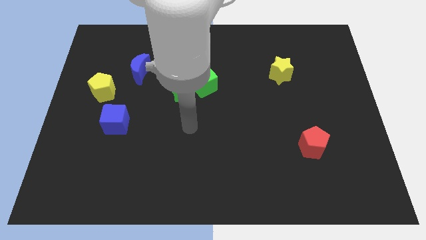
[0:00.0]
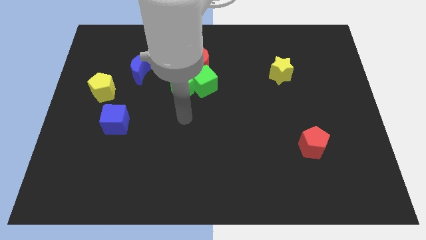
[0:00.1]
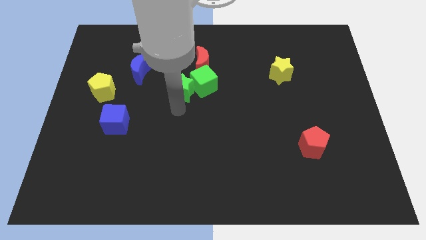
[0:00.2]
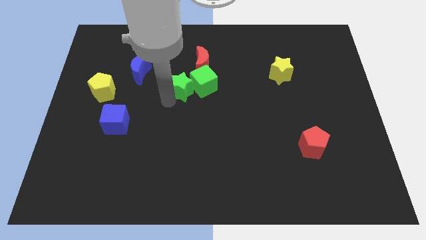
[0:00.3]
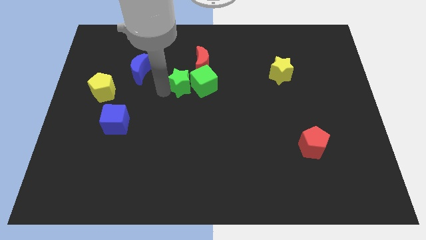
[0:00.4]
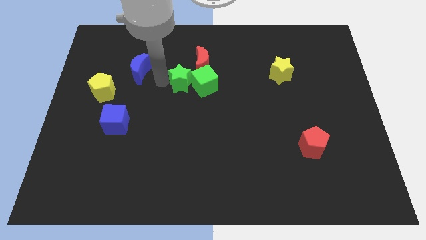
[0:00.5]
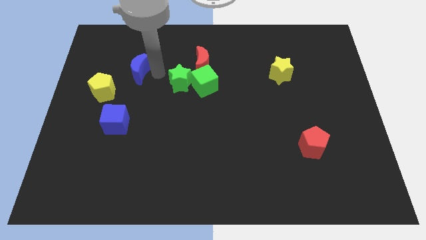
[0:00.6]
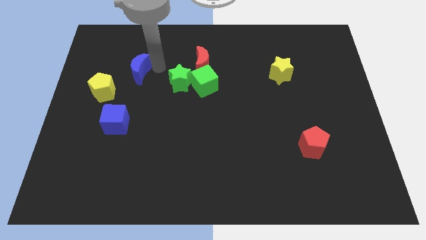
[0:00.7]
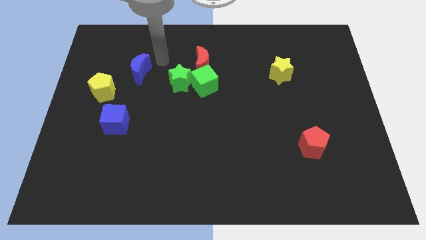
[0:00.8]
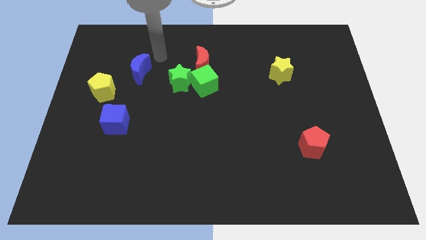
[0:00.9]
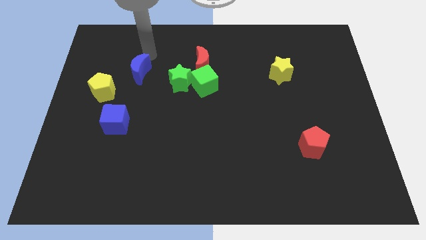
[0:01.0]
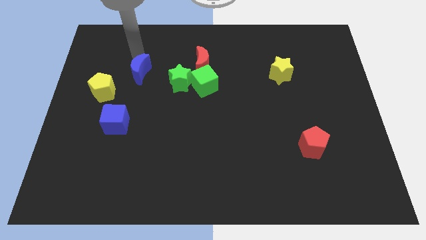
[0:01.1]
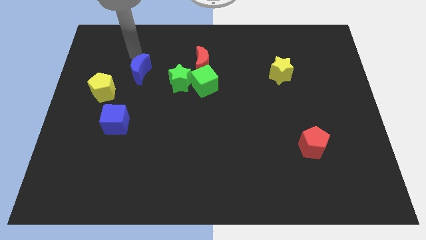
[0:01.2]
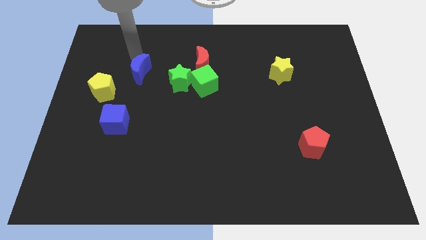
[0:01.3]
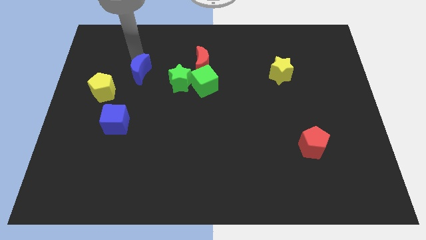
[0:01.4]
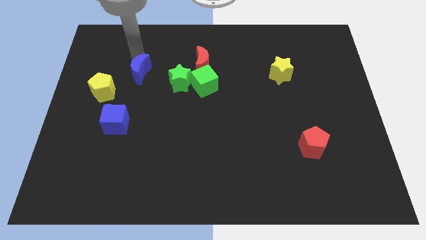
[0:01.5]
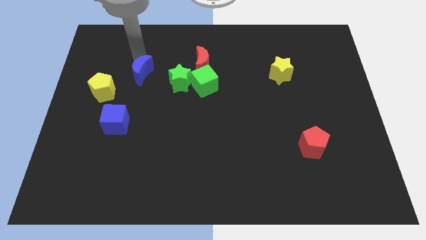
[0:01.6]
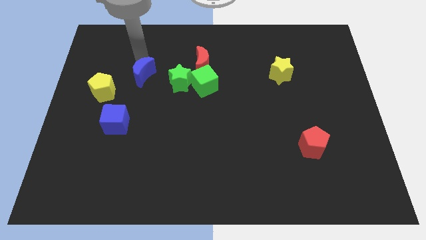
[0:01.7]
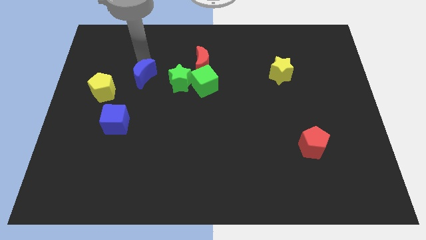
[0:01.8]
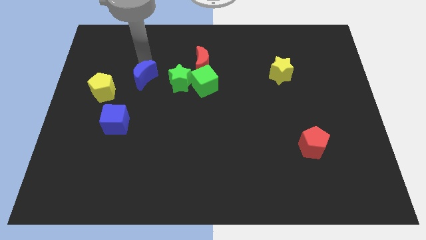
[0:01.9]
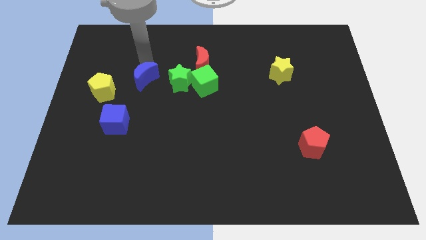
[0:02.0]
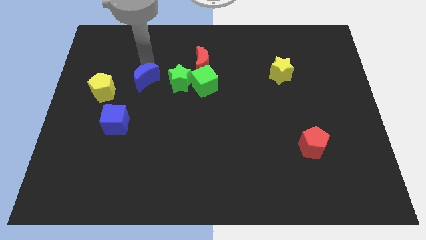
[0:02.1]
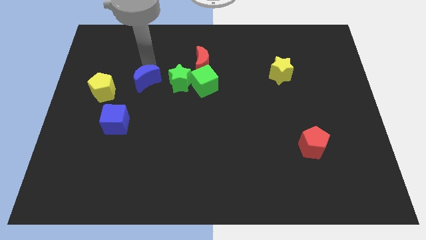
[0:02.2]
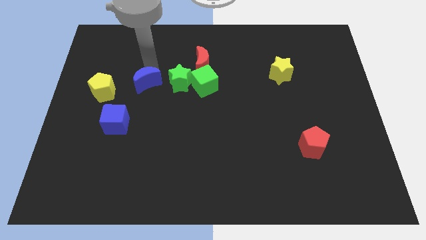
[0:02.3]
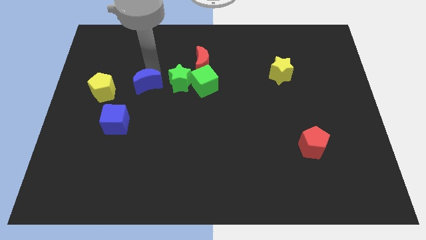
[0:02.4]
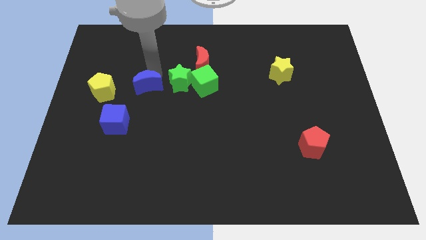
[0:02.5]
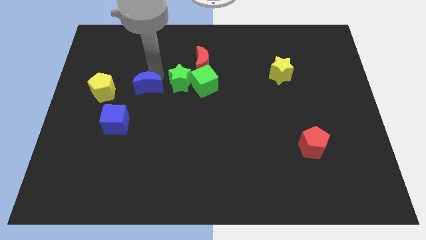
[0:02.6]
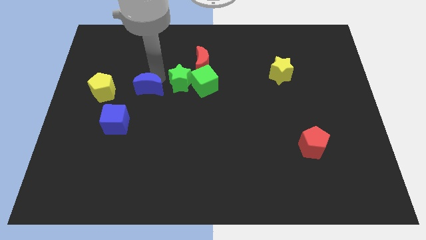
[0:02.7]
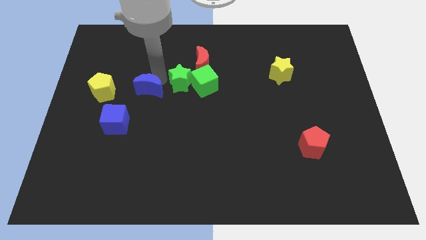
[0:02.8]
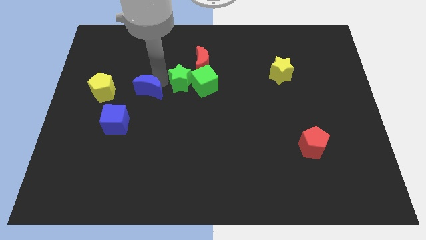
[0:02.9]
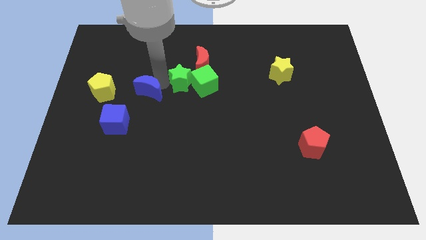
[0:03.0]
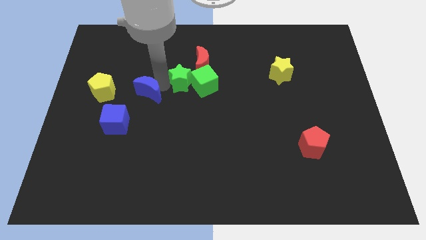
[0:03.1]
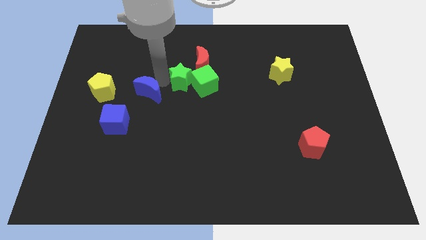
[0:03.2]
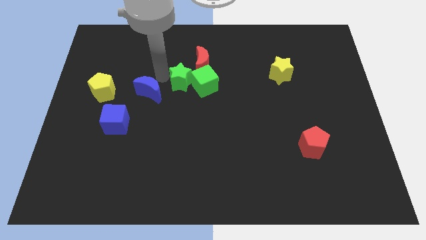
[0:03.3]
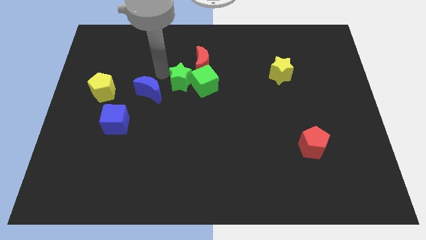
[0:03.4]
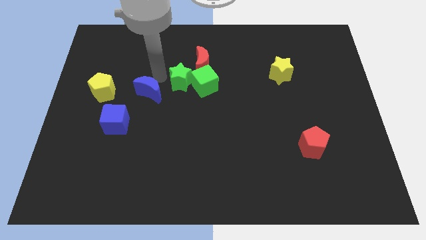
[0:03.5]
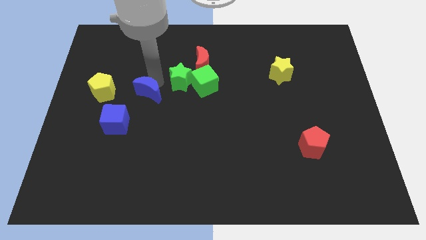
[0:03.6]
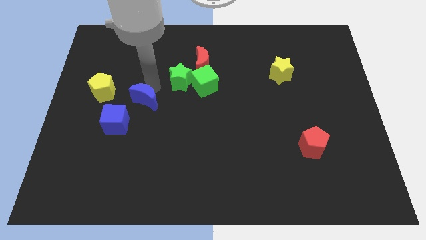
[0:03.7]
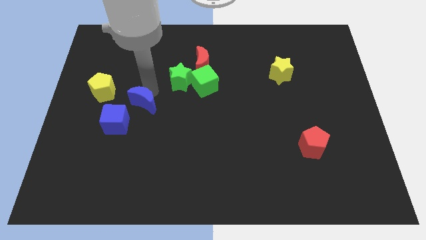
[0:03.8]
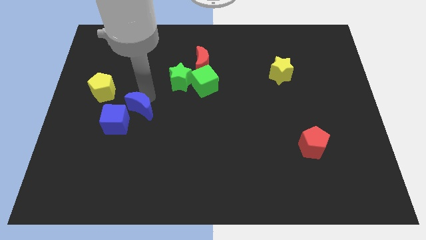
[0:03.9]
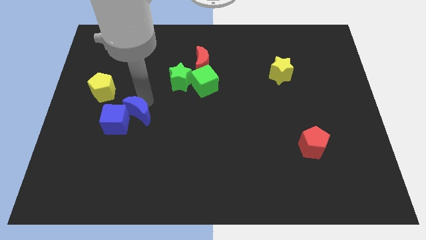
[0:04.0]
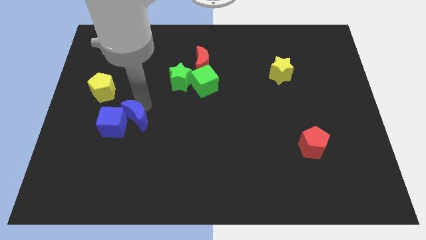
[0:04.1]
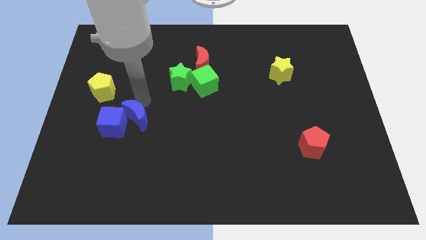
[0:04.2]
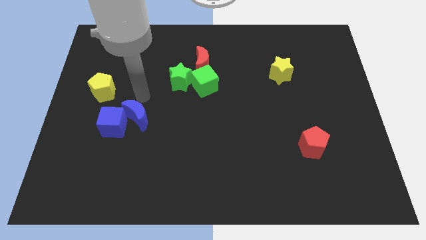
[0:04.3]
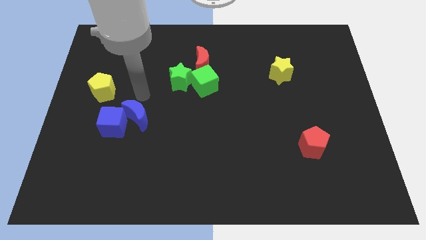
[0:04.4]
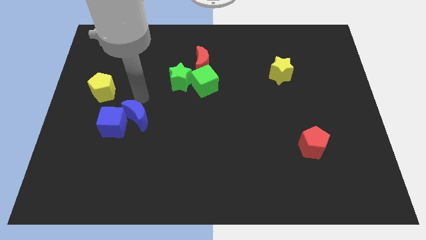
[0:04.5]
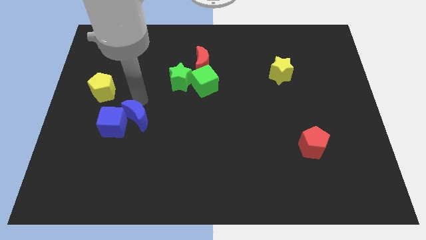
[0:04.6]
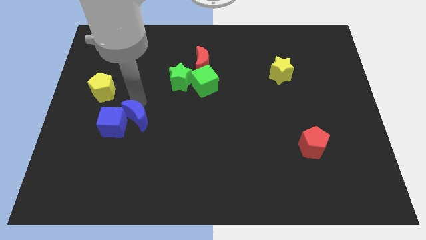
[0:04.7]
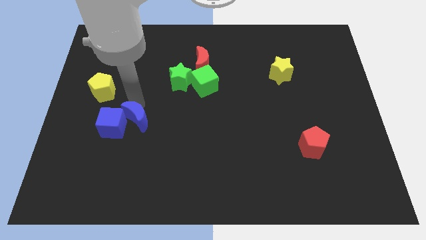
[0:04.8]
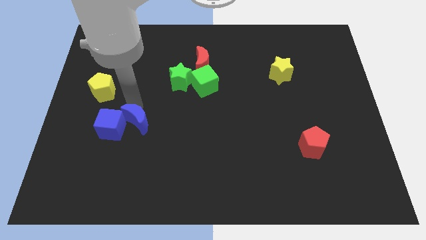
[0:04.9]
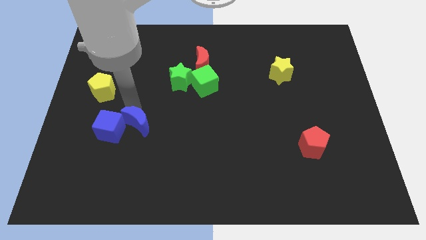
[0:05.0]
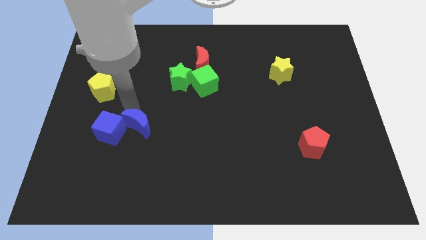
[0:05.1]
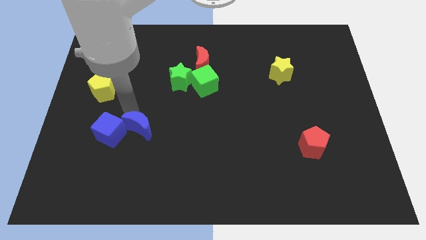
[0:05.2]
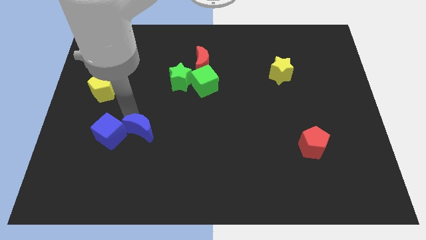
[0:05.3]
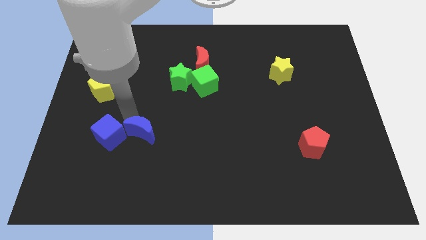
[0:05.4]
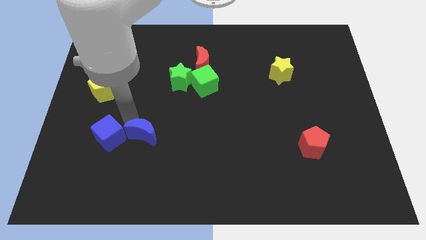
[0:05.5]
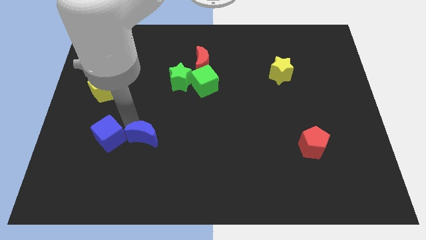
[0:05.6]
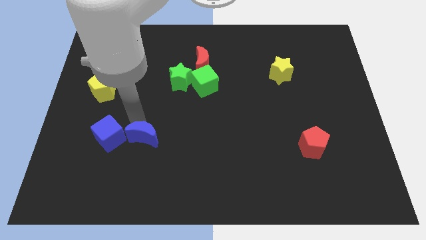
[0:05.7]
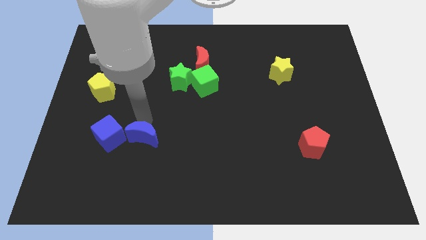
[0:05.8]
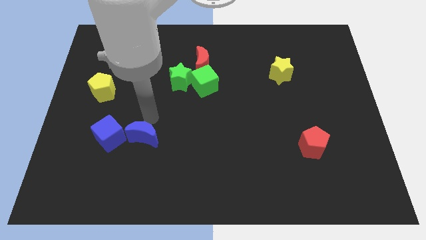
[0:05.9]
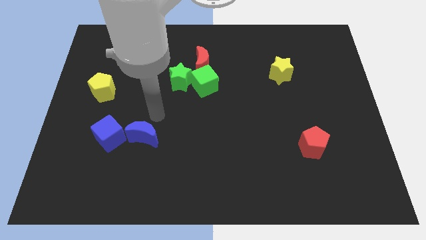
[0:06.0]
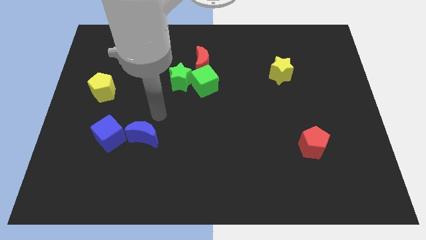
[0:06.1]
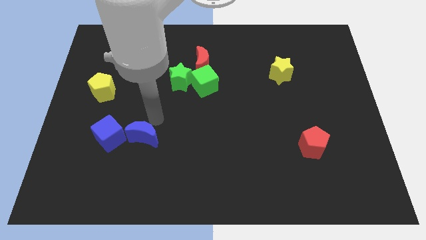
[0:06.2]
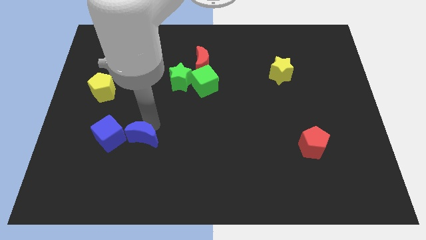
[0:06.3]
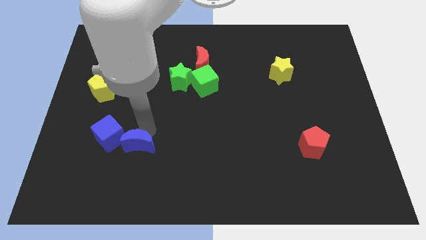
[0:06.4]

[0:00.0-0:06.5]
put the blue moon to the bottom right side of the blue cube

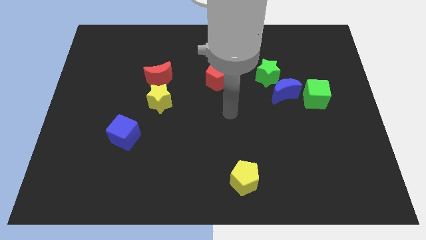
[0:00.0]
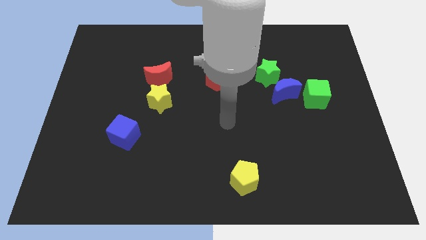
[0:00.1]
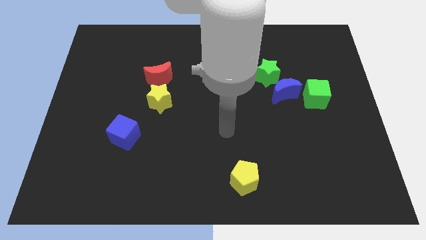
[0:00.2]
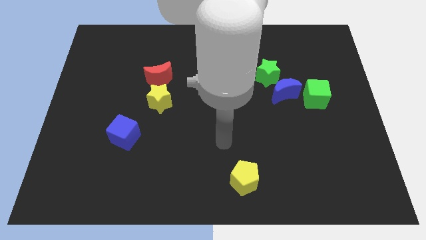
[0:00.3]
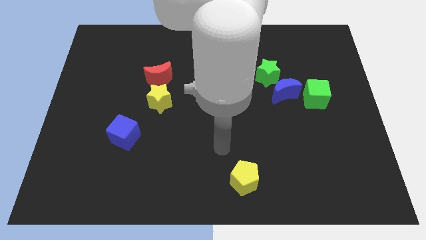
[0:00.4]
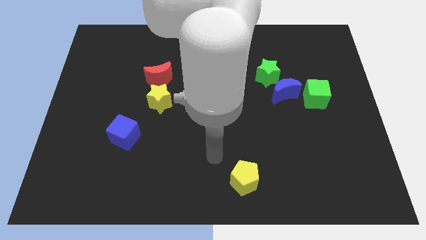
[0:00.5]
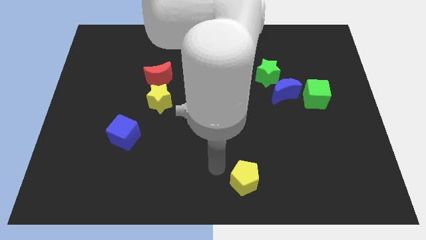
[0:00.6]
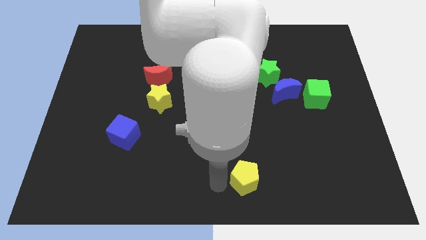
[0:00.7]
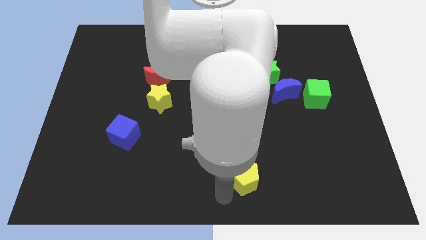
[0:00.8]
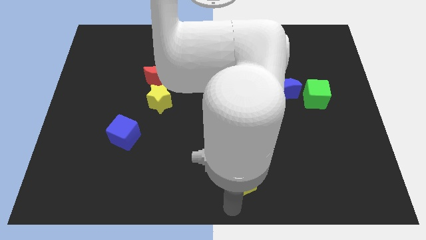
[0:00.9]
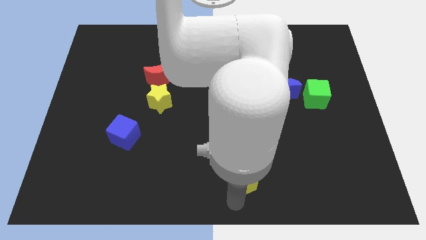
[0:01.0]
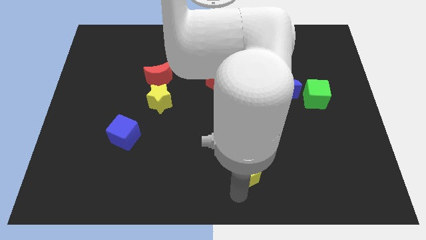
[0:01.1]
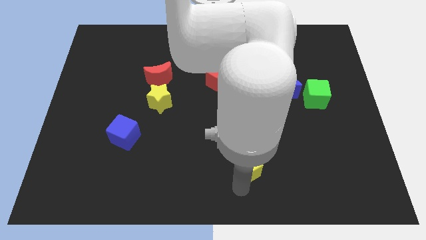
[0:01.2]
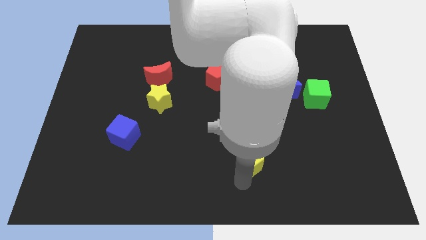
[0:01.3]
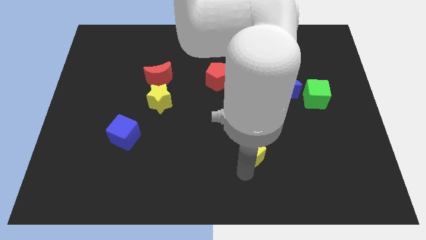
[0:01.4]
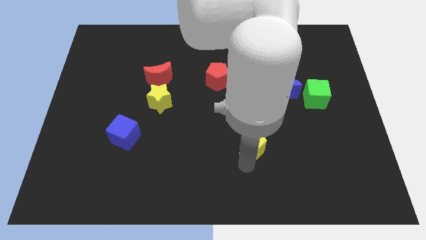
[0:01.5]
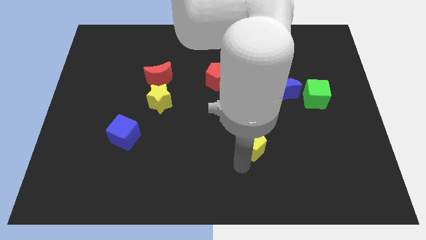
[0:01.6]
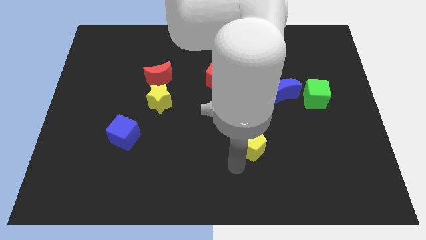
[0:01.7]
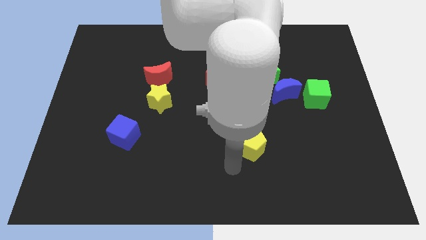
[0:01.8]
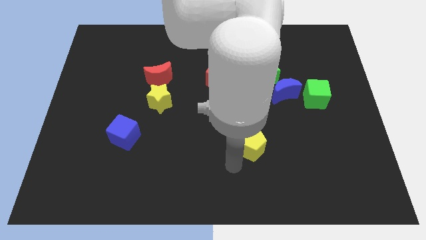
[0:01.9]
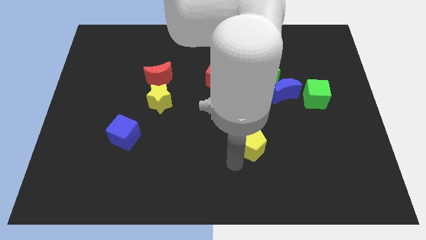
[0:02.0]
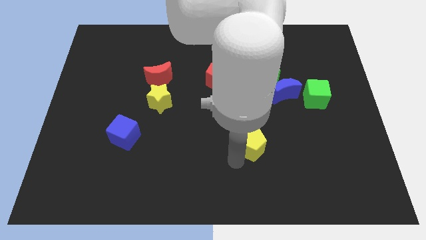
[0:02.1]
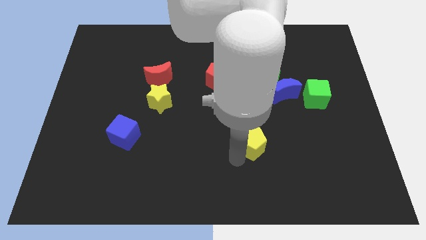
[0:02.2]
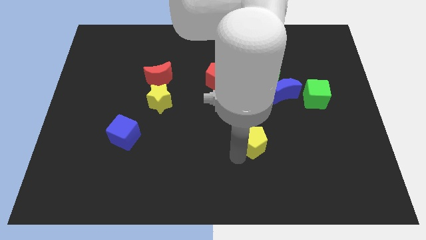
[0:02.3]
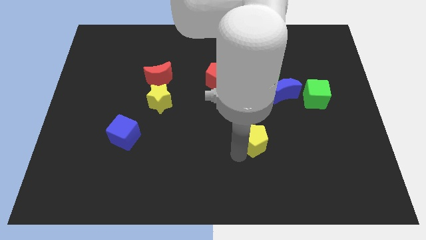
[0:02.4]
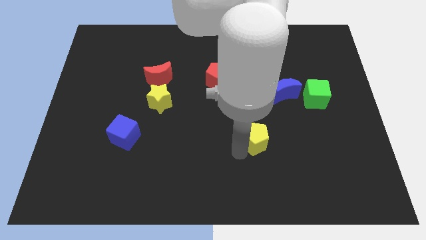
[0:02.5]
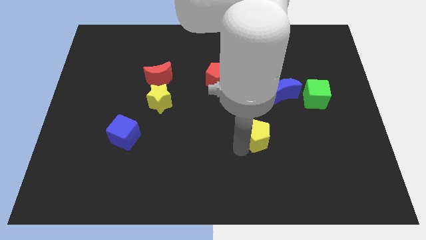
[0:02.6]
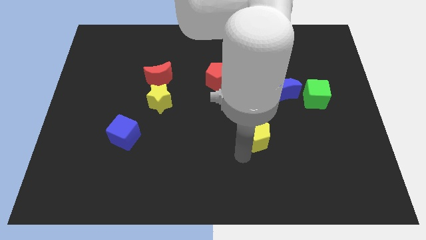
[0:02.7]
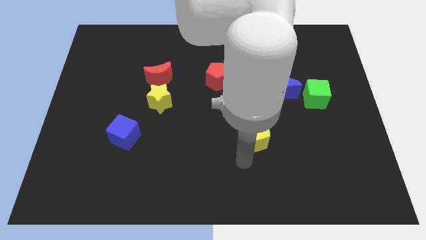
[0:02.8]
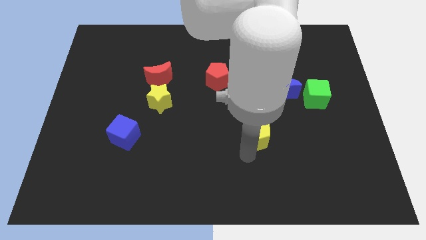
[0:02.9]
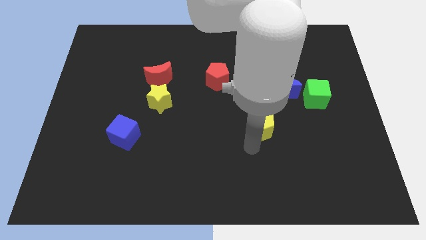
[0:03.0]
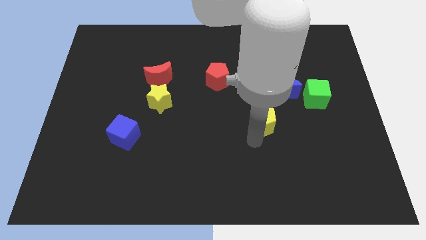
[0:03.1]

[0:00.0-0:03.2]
move the yellow pentagon to the bottom side of the green star
